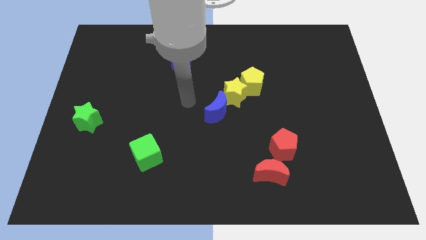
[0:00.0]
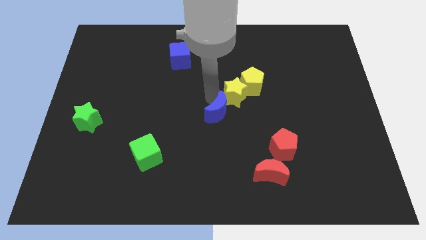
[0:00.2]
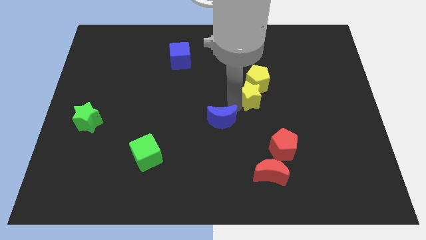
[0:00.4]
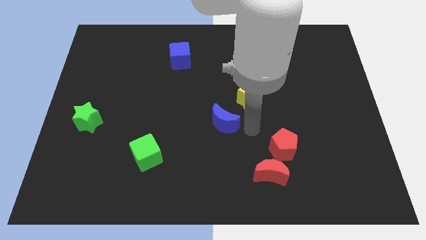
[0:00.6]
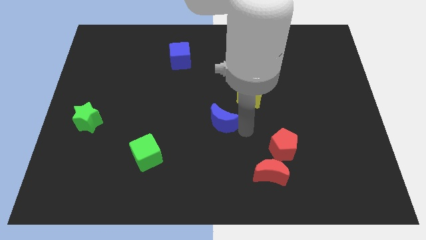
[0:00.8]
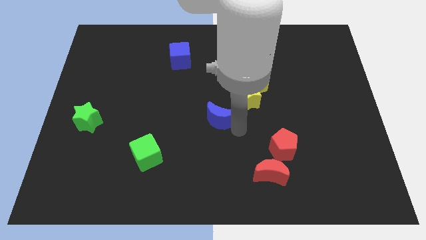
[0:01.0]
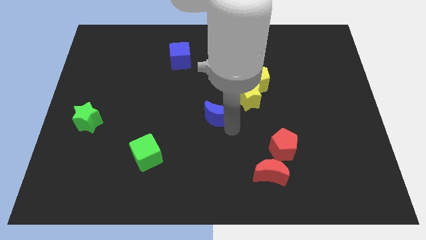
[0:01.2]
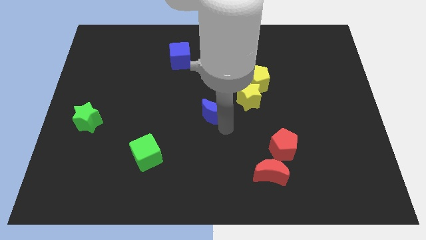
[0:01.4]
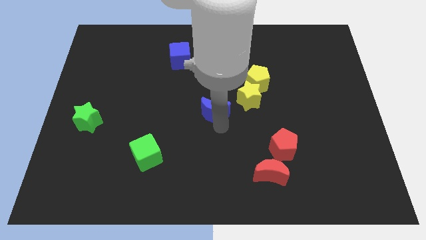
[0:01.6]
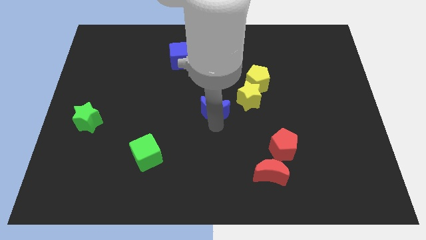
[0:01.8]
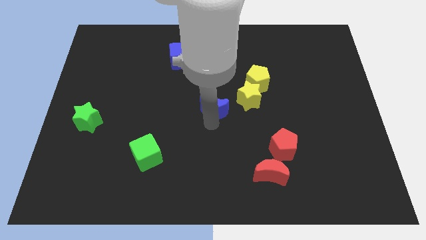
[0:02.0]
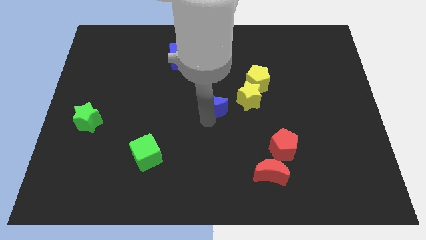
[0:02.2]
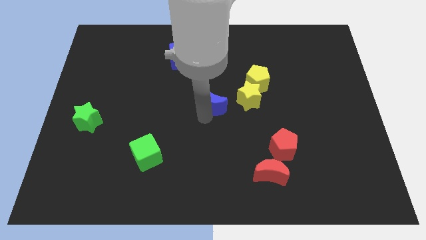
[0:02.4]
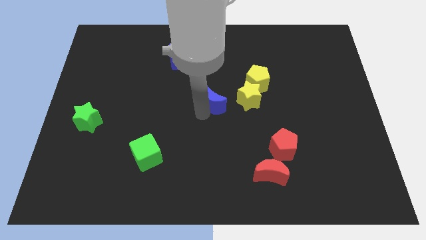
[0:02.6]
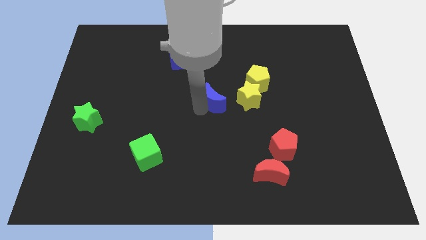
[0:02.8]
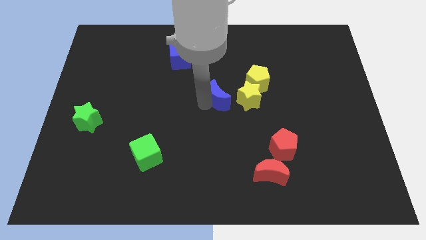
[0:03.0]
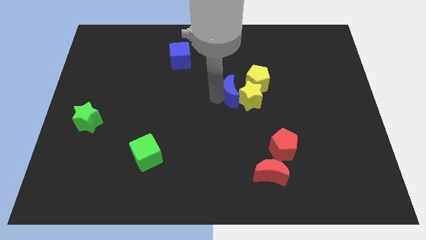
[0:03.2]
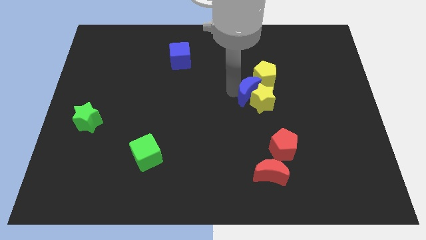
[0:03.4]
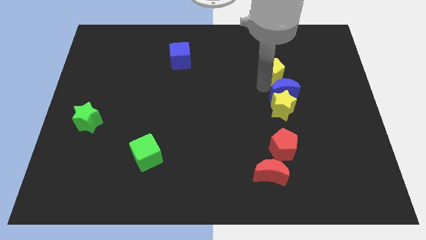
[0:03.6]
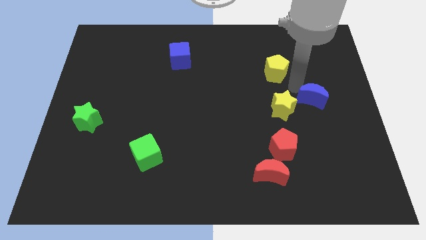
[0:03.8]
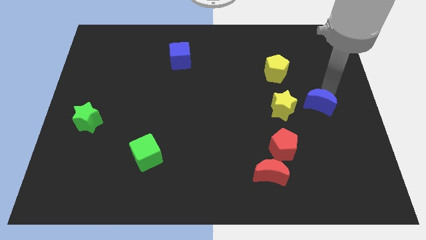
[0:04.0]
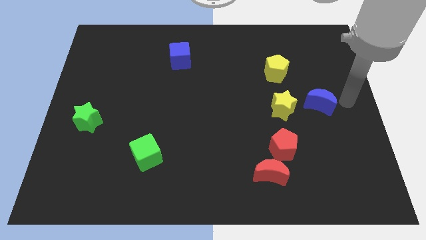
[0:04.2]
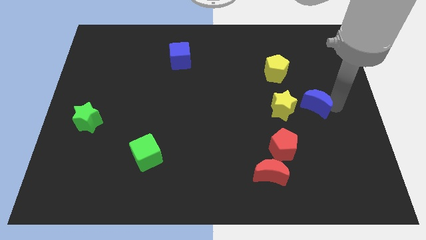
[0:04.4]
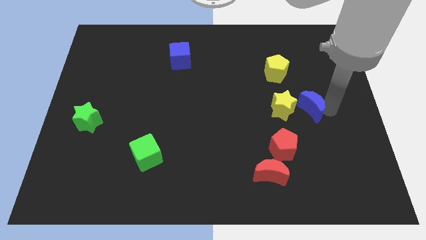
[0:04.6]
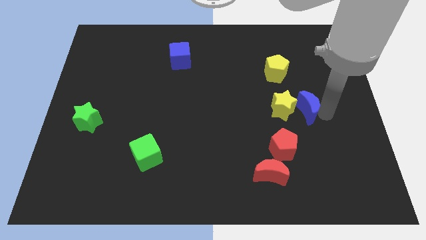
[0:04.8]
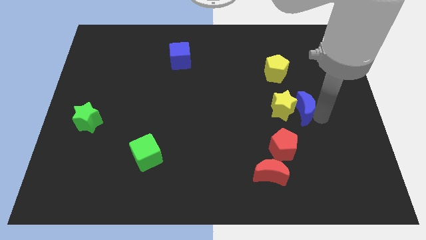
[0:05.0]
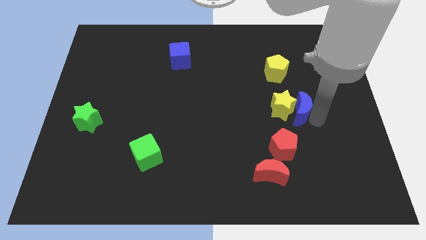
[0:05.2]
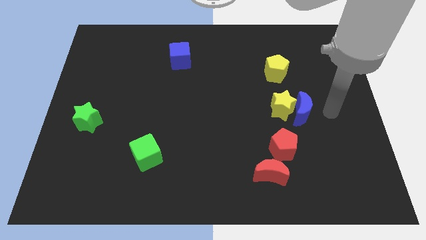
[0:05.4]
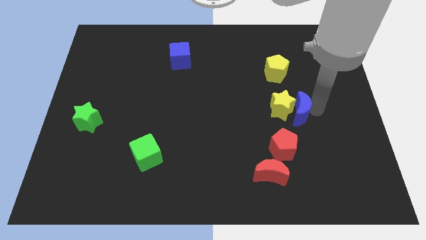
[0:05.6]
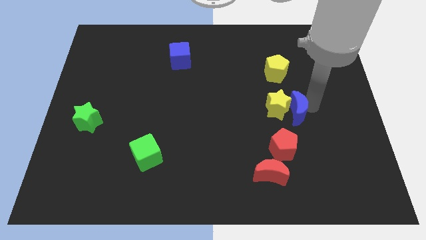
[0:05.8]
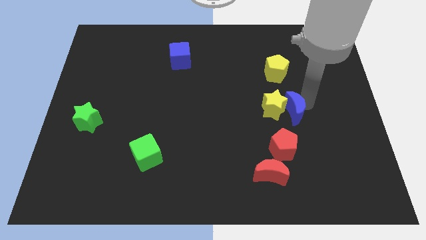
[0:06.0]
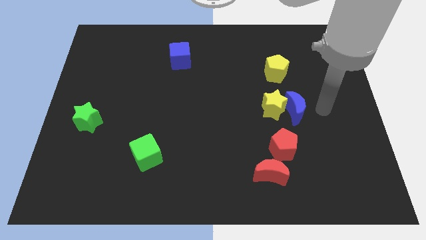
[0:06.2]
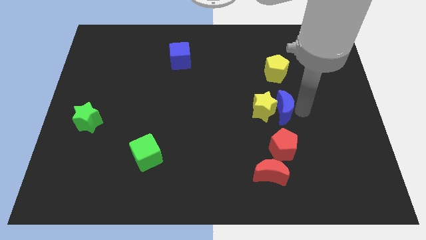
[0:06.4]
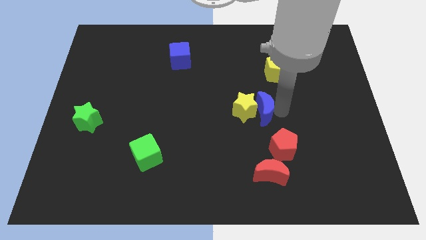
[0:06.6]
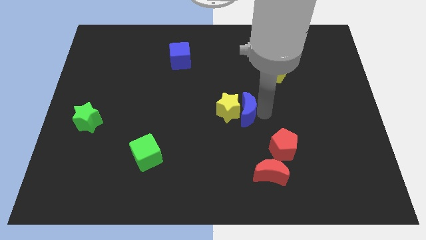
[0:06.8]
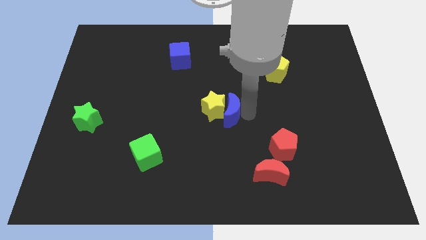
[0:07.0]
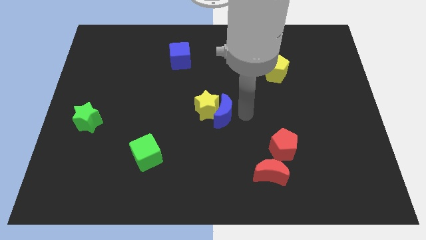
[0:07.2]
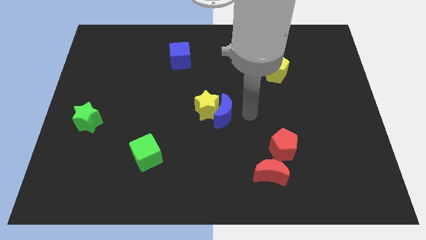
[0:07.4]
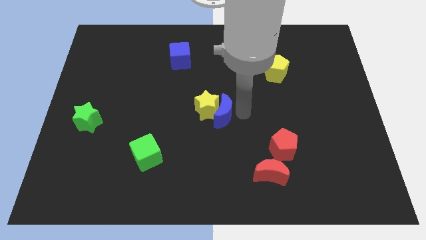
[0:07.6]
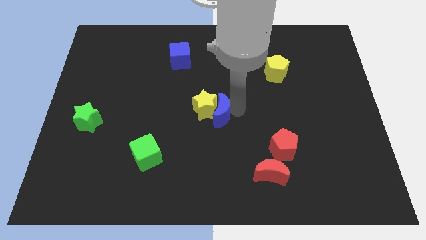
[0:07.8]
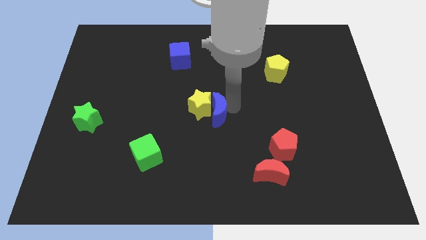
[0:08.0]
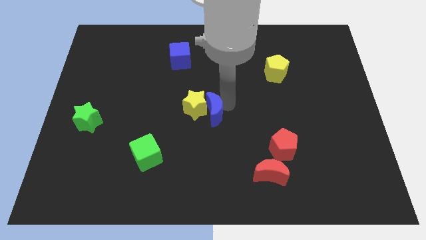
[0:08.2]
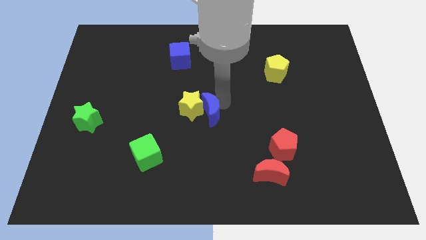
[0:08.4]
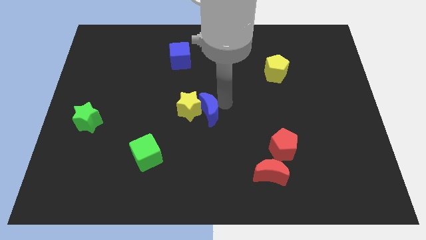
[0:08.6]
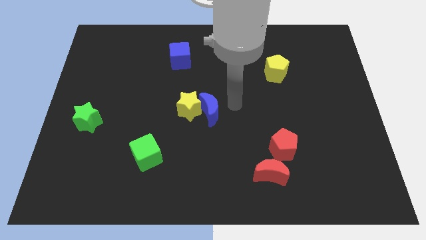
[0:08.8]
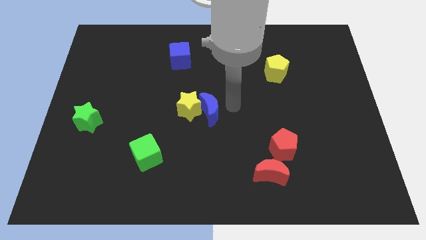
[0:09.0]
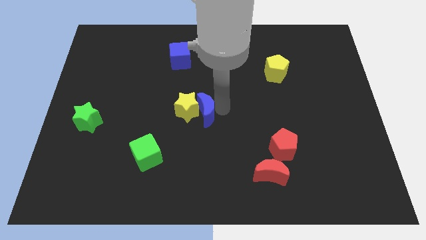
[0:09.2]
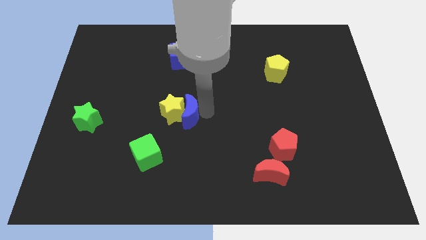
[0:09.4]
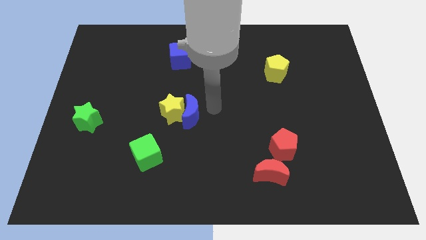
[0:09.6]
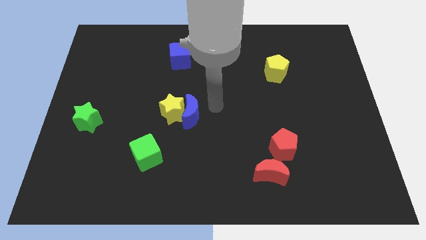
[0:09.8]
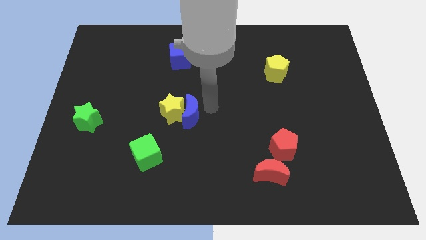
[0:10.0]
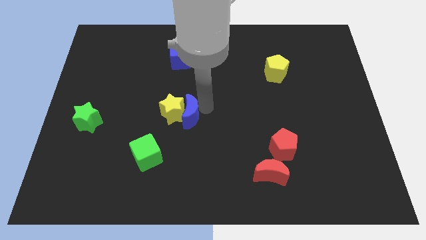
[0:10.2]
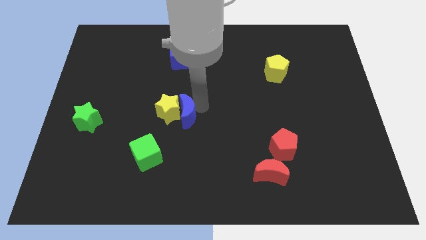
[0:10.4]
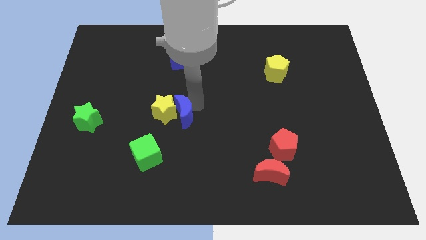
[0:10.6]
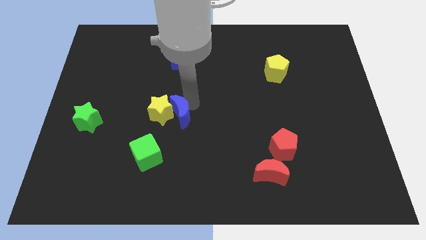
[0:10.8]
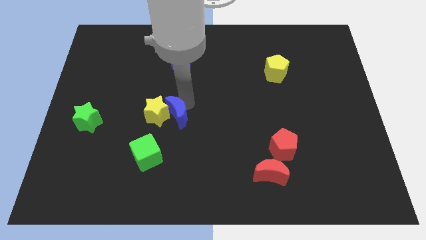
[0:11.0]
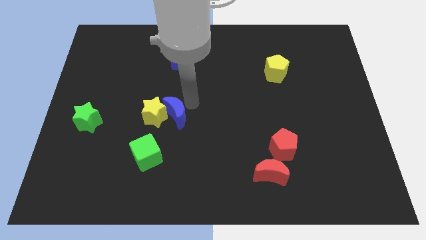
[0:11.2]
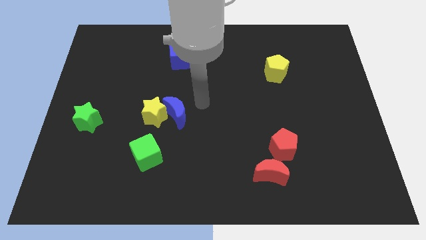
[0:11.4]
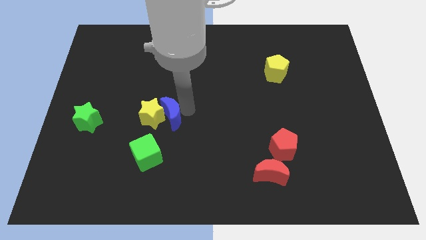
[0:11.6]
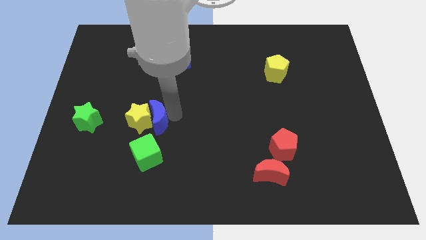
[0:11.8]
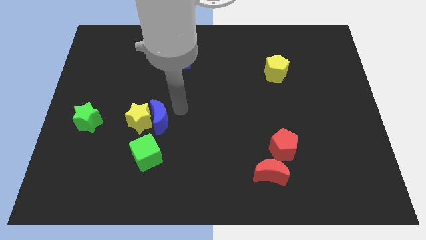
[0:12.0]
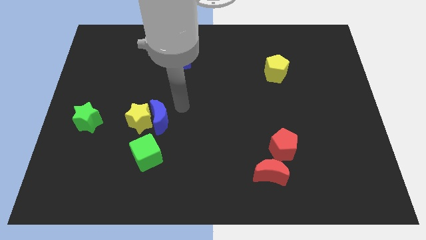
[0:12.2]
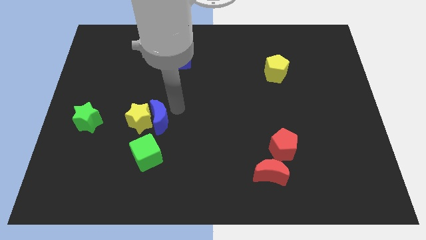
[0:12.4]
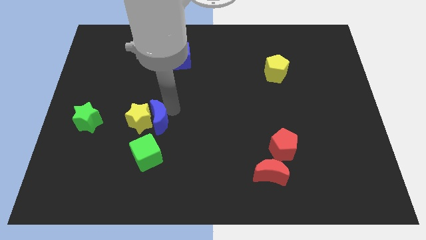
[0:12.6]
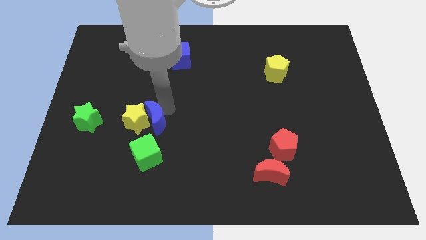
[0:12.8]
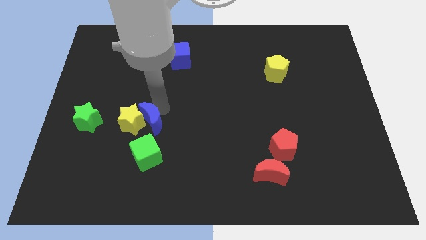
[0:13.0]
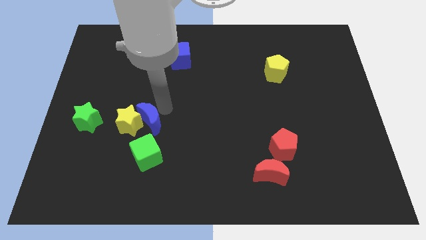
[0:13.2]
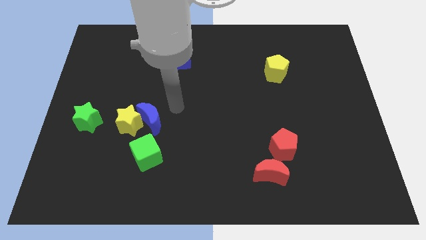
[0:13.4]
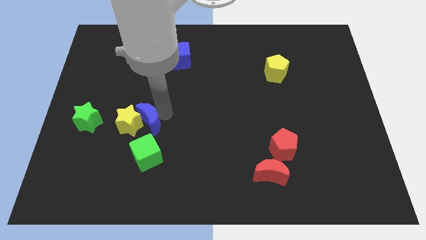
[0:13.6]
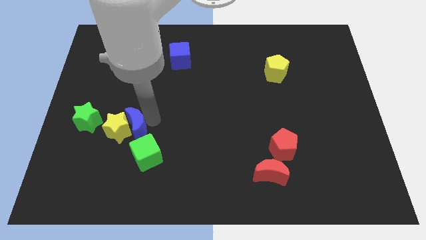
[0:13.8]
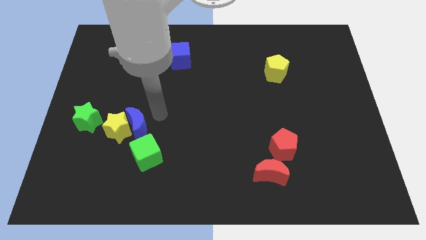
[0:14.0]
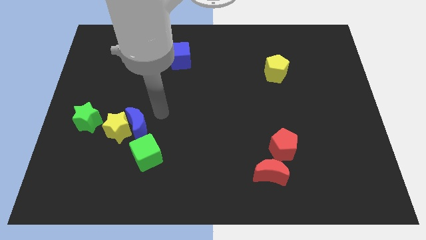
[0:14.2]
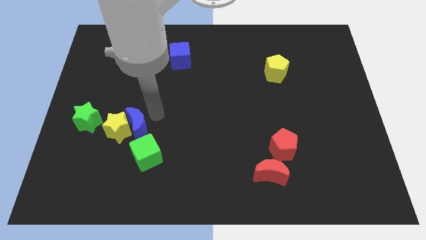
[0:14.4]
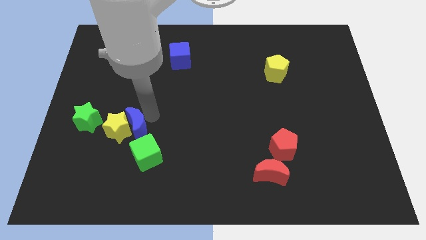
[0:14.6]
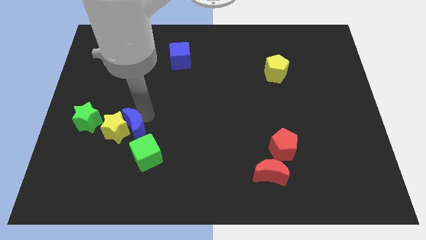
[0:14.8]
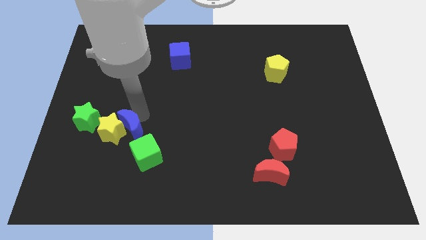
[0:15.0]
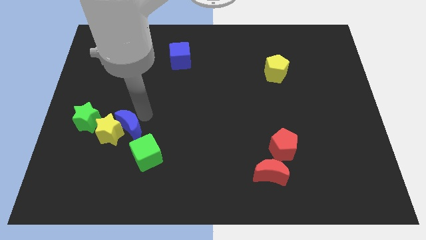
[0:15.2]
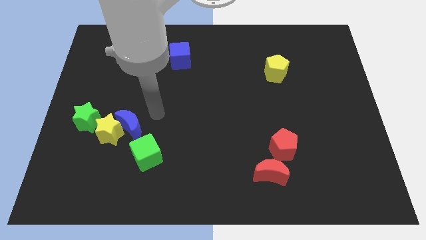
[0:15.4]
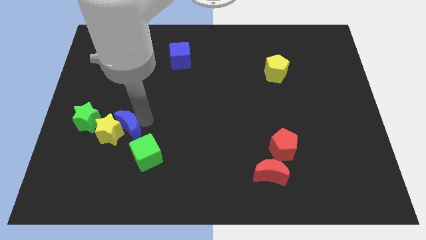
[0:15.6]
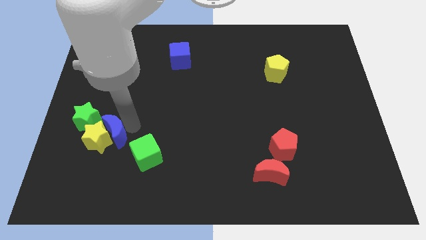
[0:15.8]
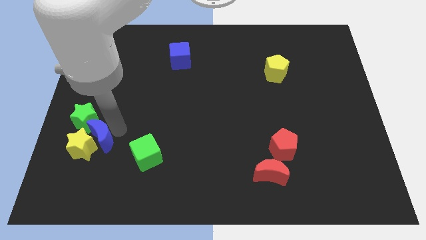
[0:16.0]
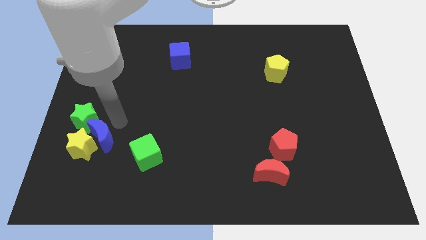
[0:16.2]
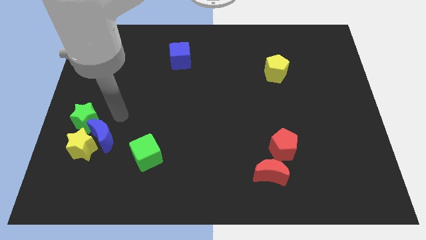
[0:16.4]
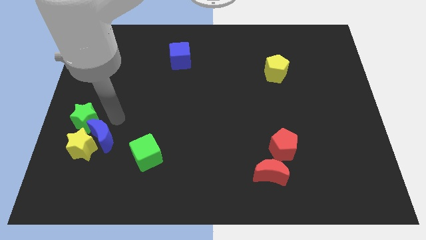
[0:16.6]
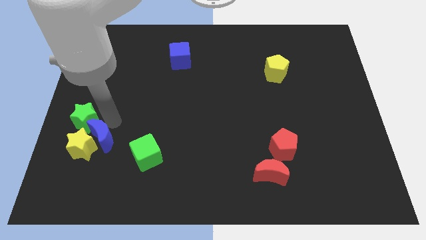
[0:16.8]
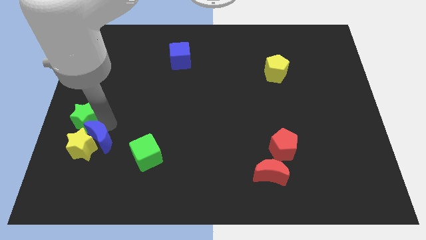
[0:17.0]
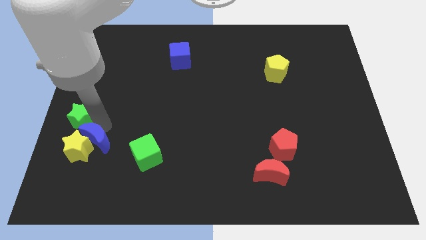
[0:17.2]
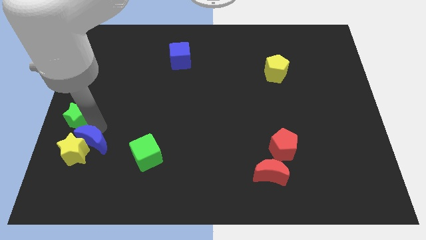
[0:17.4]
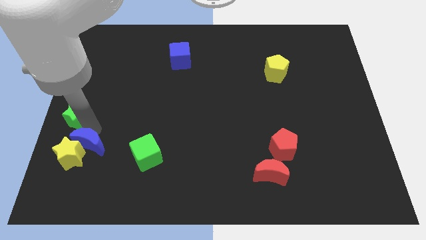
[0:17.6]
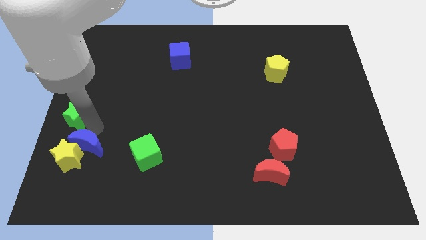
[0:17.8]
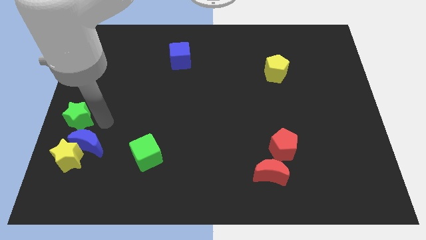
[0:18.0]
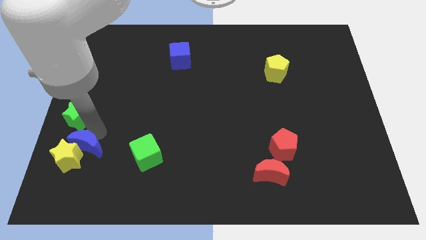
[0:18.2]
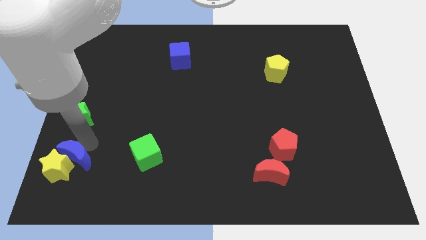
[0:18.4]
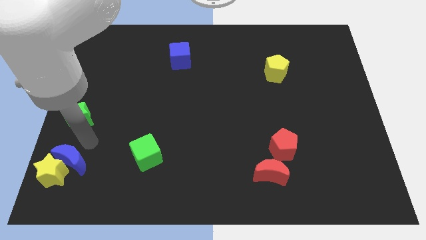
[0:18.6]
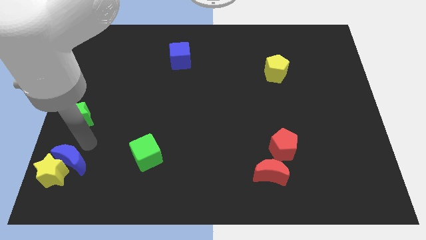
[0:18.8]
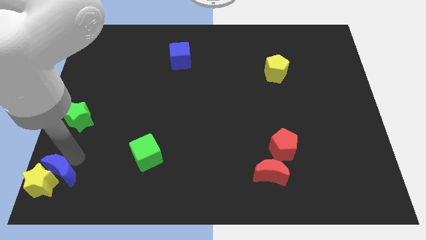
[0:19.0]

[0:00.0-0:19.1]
put the blue moon to the bottom left of the board
